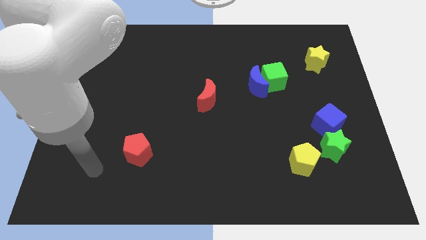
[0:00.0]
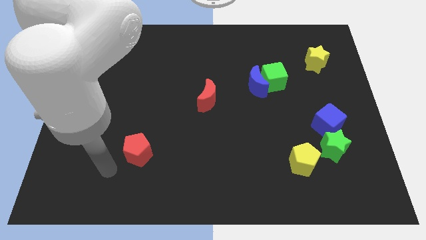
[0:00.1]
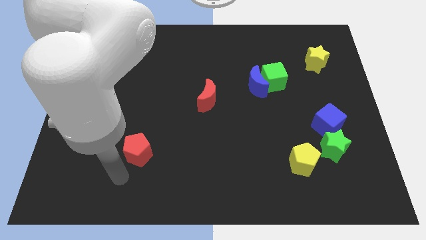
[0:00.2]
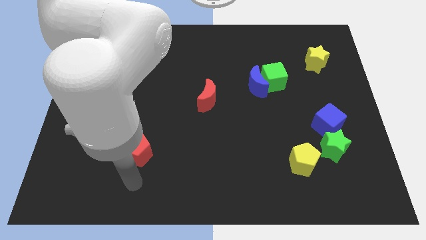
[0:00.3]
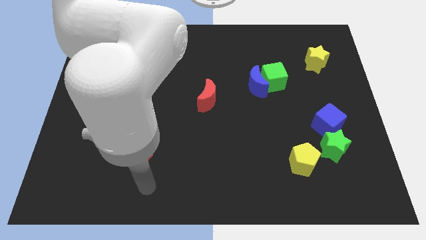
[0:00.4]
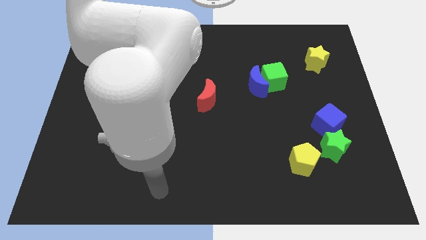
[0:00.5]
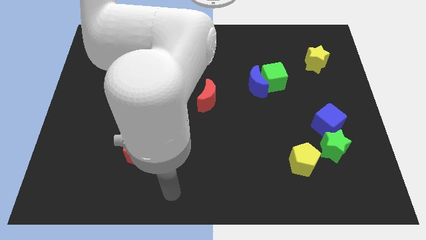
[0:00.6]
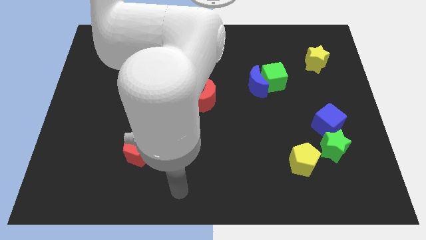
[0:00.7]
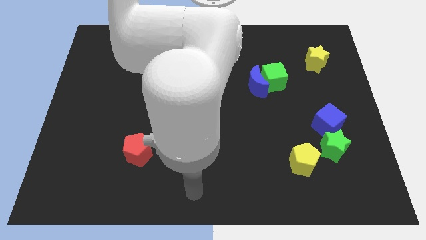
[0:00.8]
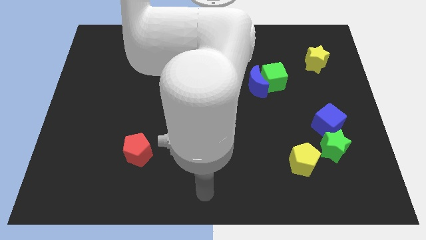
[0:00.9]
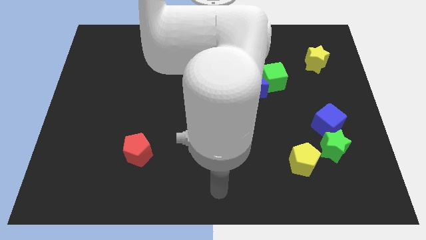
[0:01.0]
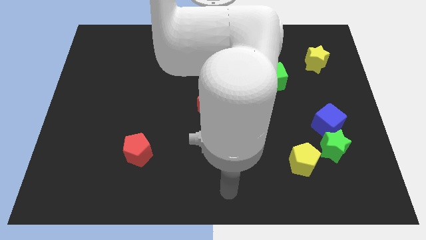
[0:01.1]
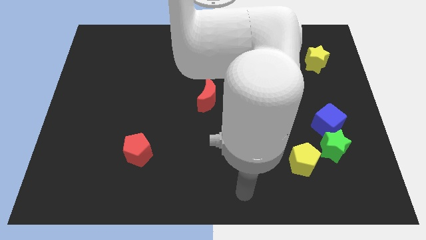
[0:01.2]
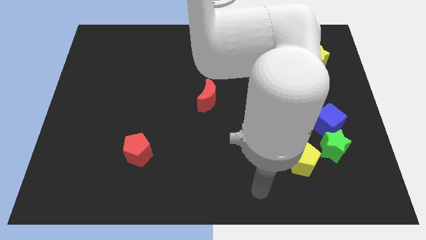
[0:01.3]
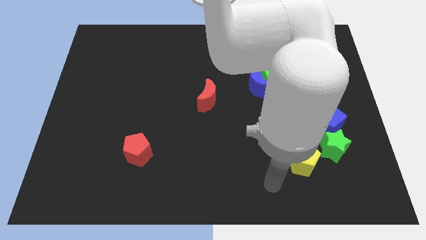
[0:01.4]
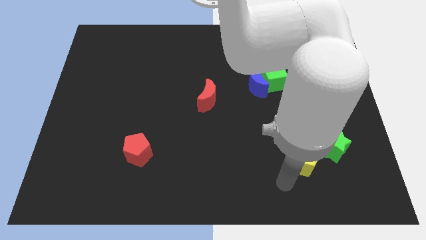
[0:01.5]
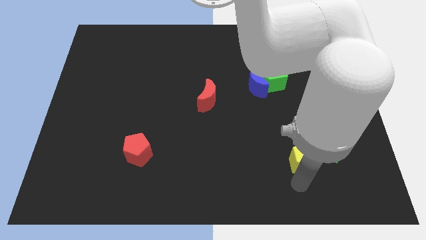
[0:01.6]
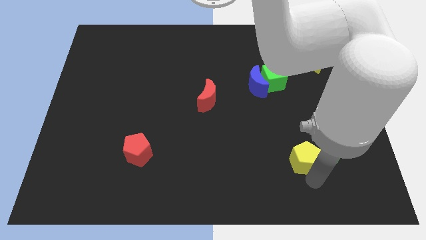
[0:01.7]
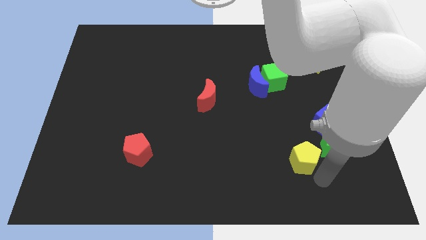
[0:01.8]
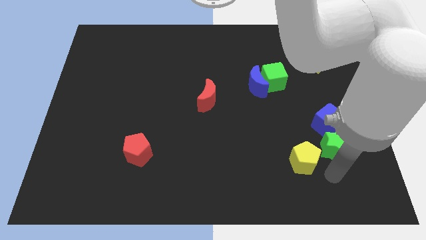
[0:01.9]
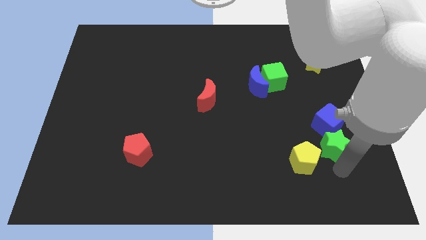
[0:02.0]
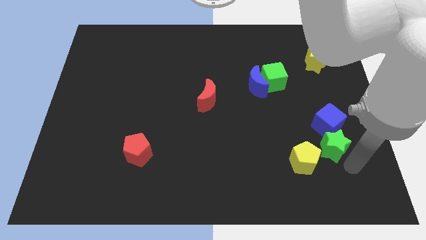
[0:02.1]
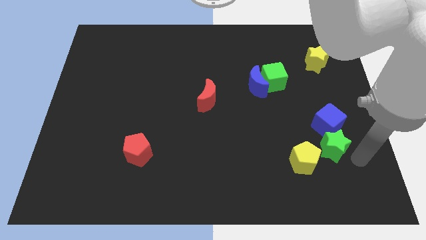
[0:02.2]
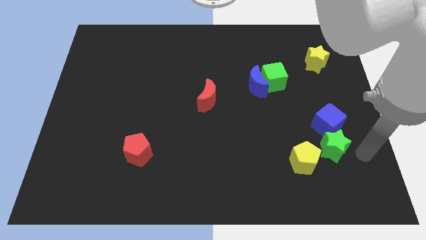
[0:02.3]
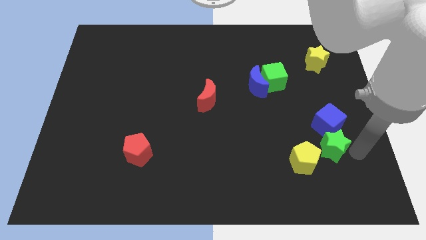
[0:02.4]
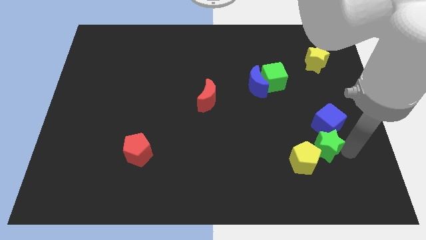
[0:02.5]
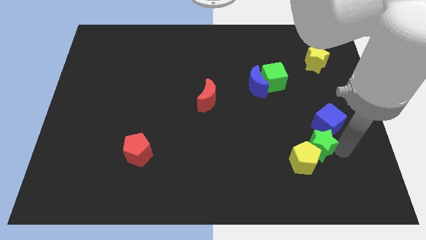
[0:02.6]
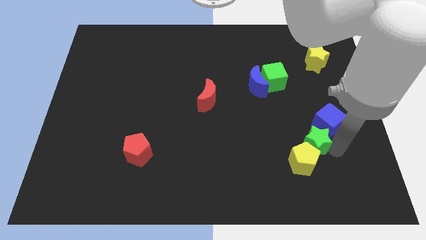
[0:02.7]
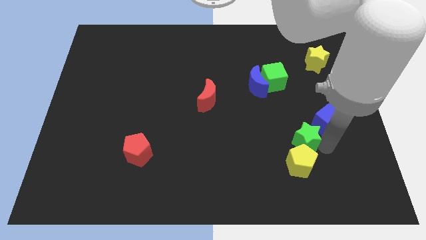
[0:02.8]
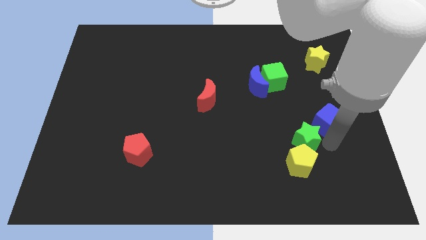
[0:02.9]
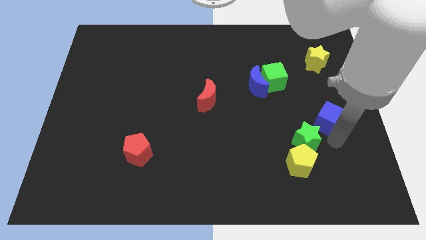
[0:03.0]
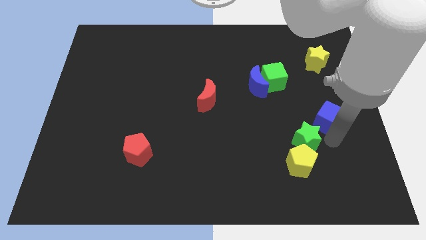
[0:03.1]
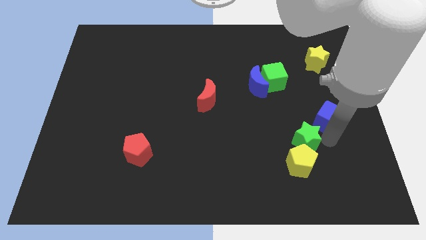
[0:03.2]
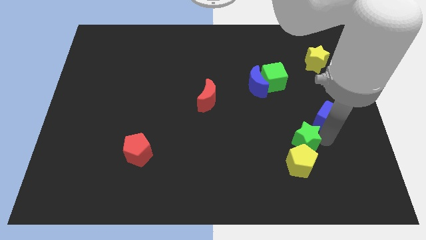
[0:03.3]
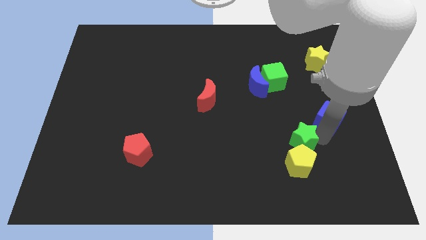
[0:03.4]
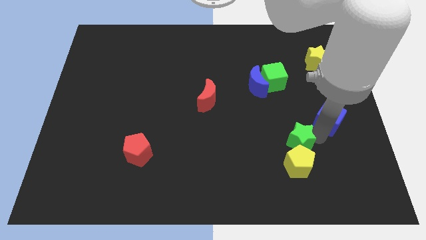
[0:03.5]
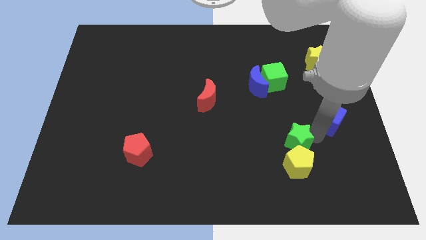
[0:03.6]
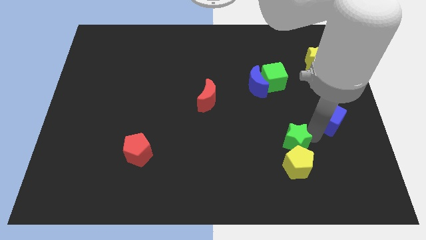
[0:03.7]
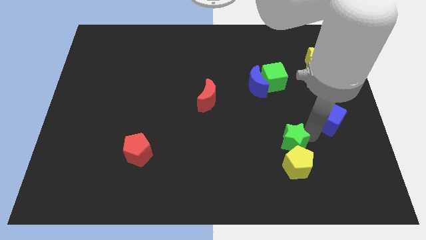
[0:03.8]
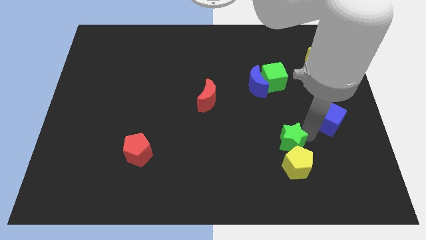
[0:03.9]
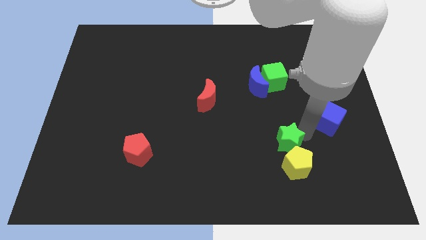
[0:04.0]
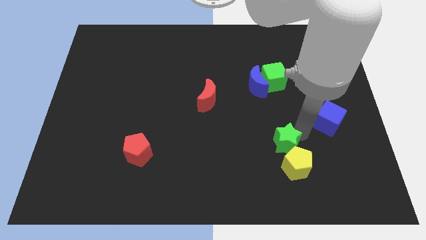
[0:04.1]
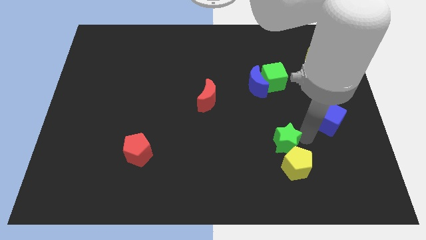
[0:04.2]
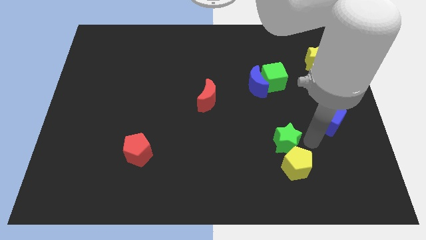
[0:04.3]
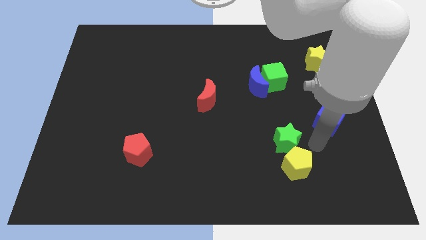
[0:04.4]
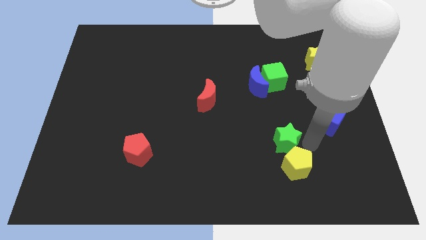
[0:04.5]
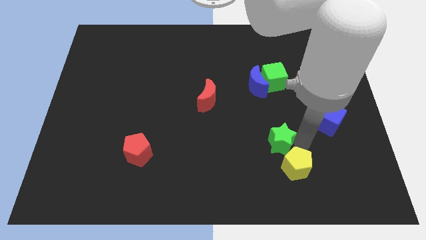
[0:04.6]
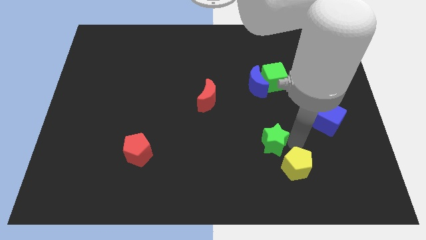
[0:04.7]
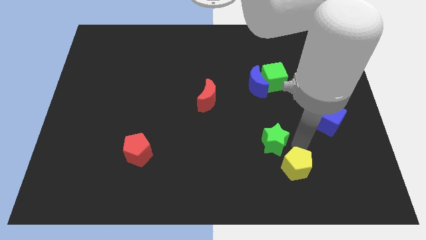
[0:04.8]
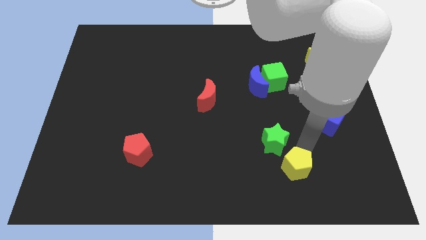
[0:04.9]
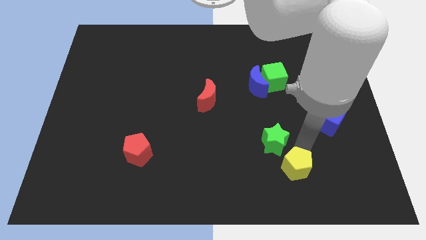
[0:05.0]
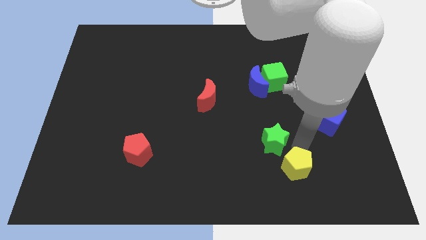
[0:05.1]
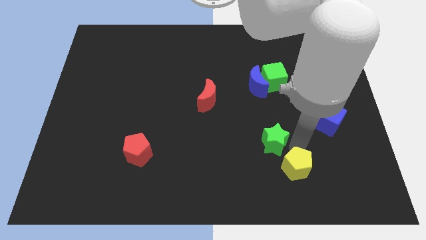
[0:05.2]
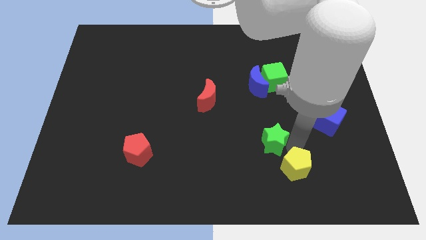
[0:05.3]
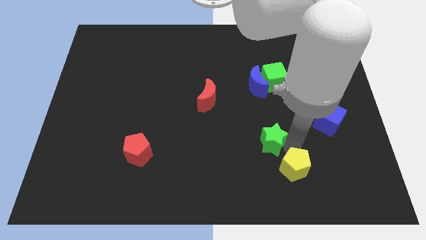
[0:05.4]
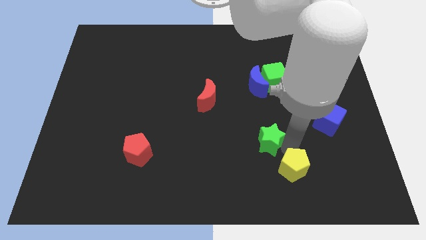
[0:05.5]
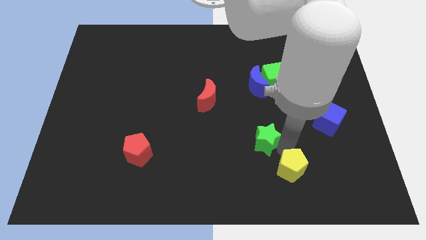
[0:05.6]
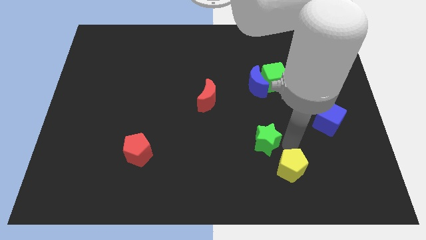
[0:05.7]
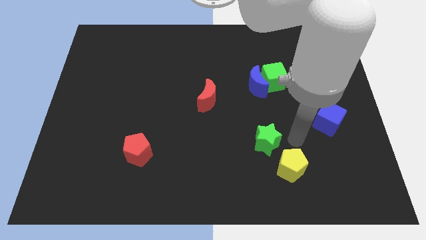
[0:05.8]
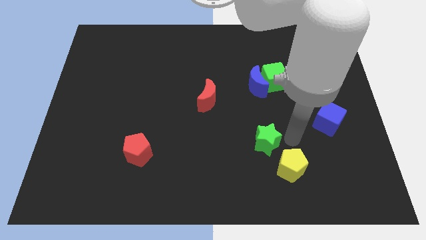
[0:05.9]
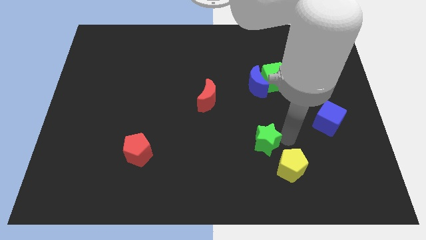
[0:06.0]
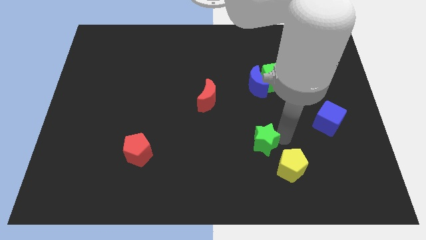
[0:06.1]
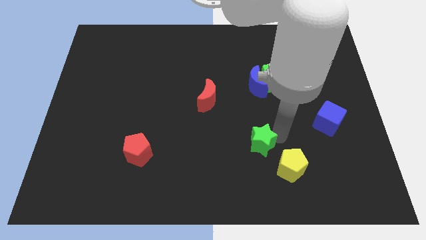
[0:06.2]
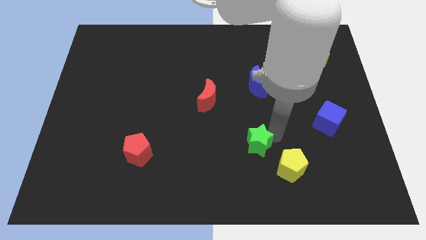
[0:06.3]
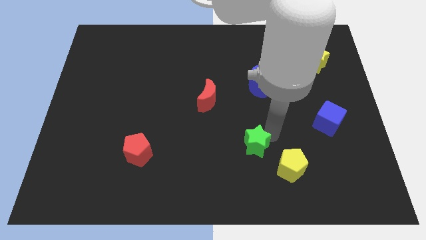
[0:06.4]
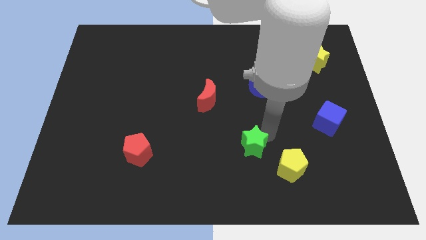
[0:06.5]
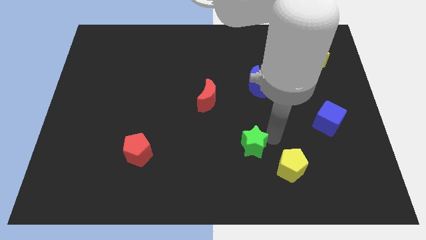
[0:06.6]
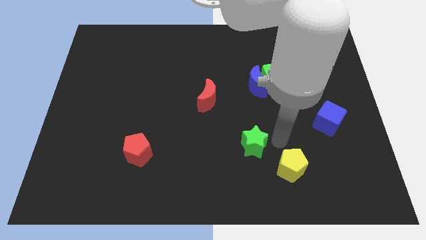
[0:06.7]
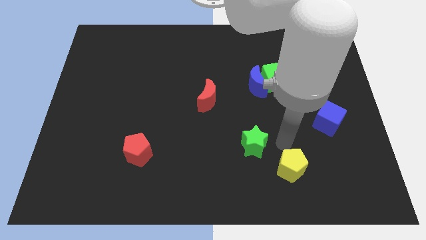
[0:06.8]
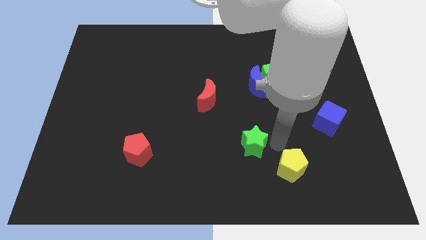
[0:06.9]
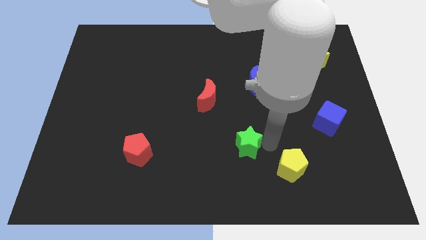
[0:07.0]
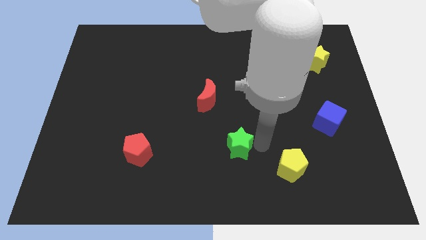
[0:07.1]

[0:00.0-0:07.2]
push the green star to the left

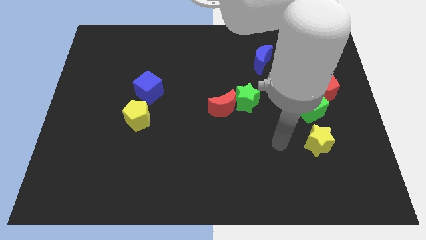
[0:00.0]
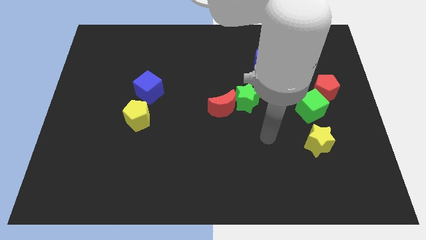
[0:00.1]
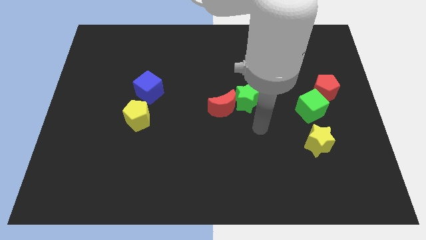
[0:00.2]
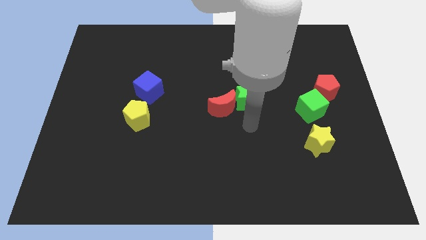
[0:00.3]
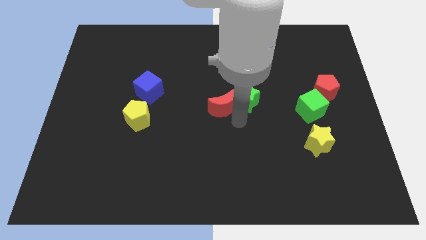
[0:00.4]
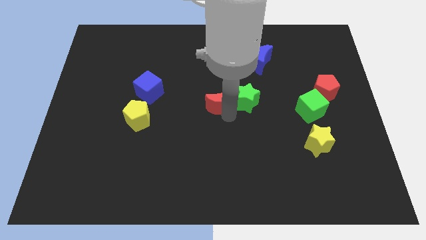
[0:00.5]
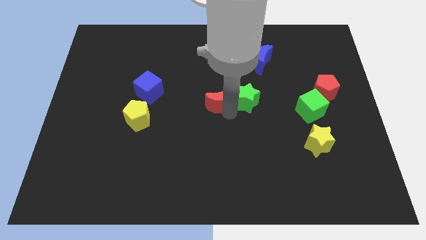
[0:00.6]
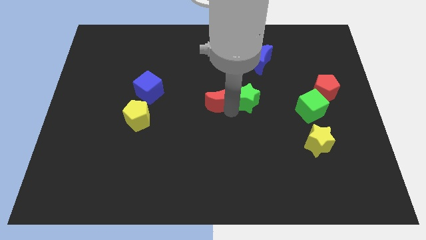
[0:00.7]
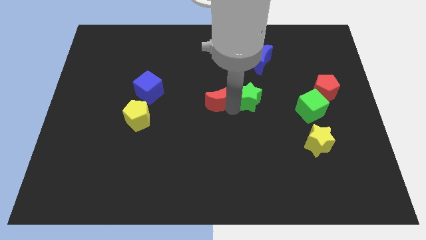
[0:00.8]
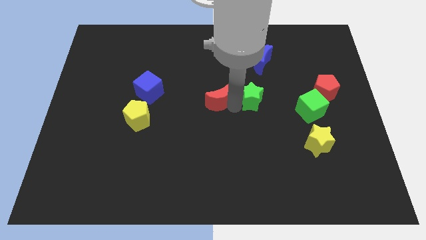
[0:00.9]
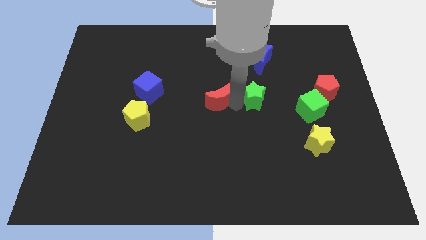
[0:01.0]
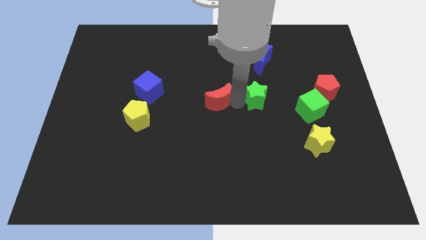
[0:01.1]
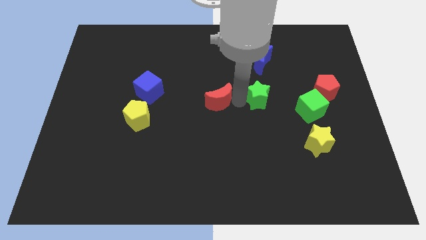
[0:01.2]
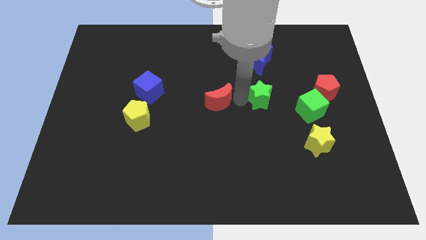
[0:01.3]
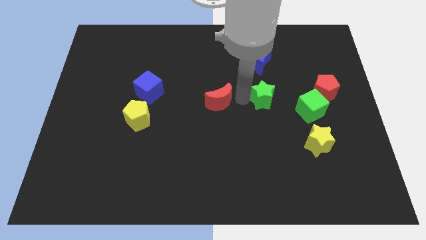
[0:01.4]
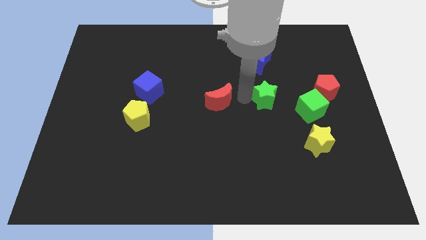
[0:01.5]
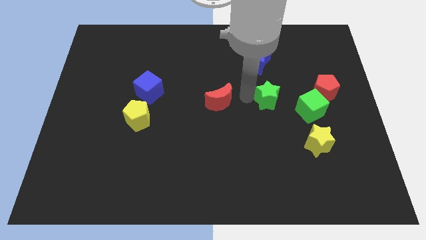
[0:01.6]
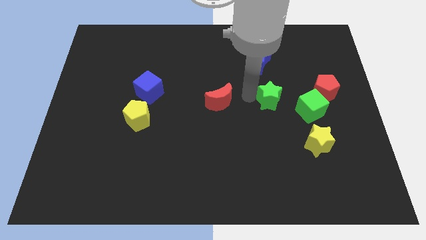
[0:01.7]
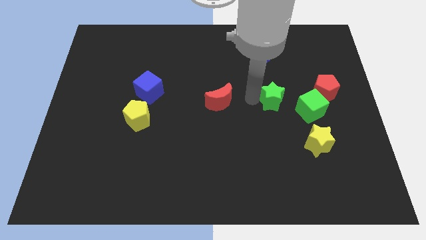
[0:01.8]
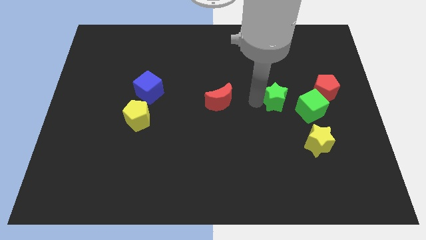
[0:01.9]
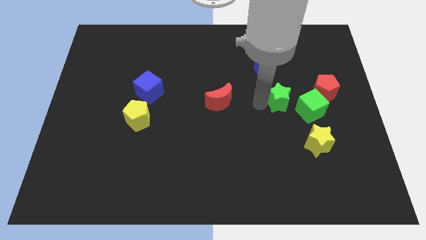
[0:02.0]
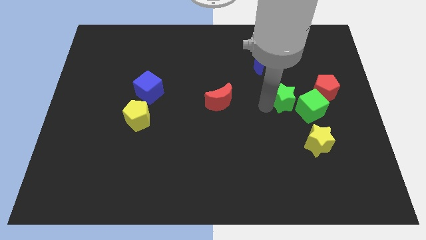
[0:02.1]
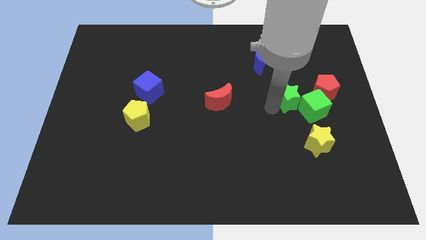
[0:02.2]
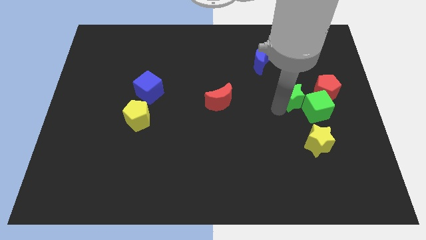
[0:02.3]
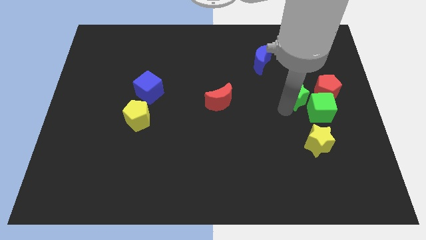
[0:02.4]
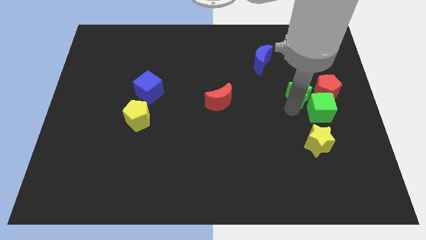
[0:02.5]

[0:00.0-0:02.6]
slightly slide the green star diagonally upwards and right
